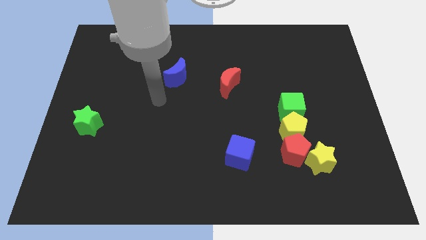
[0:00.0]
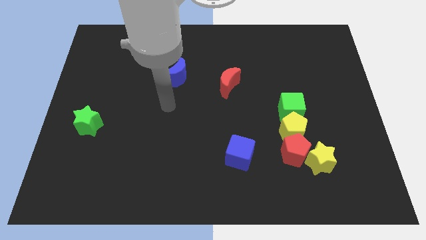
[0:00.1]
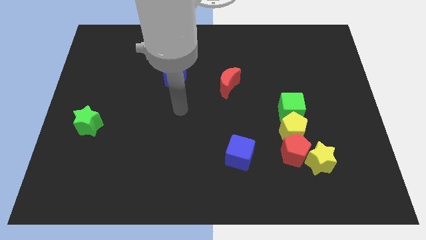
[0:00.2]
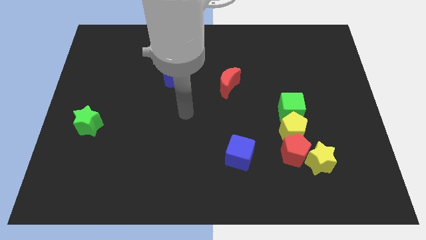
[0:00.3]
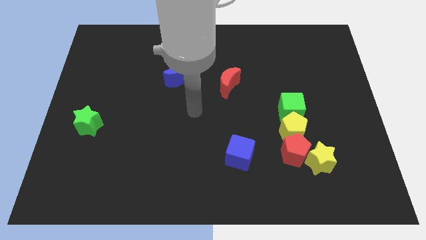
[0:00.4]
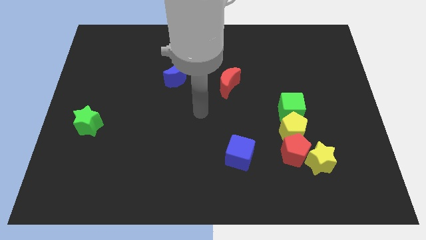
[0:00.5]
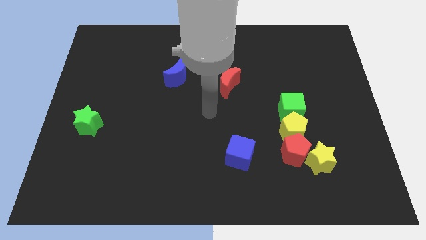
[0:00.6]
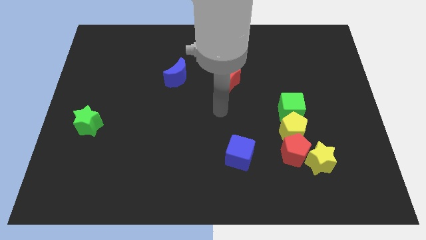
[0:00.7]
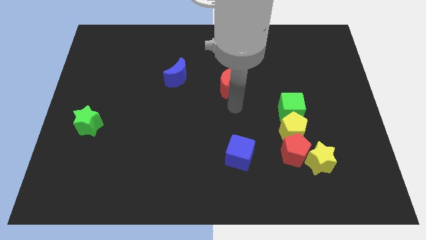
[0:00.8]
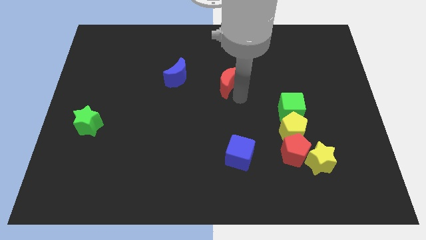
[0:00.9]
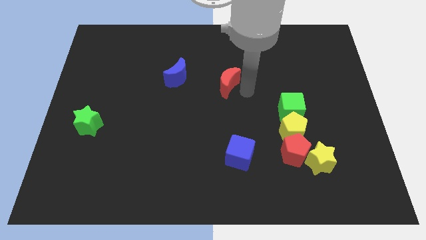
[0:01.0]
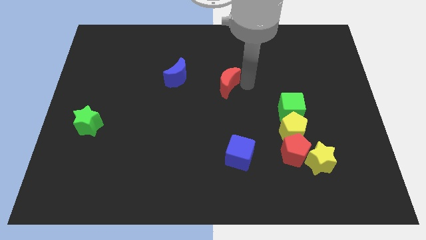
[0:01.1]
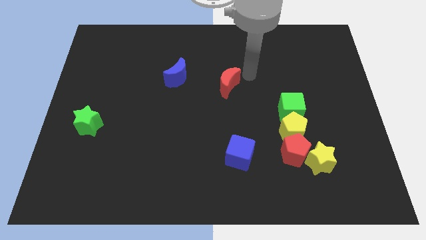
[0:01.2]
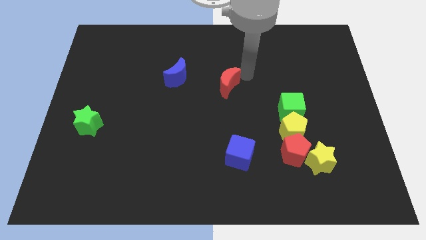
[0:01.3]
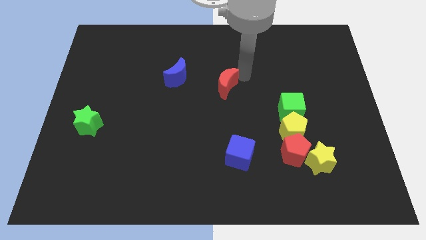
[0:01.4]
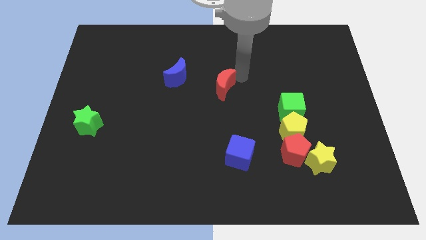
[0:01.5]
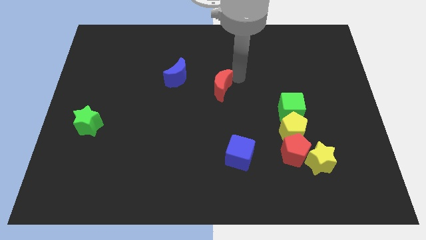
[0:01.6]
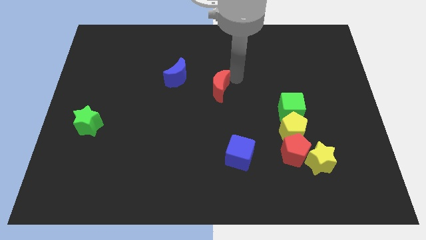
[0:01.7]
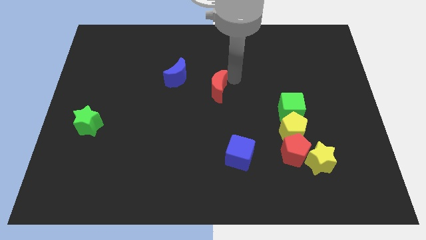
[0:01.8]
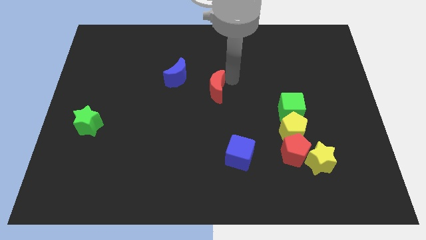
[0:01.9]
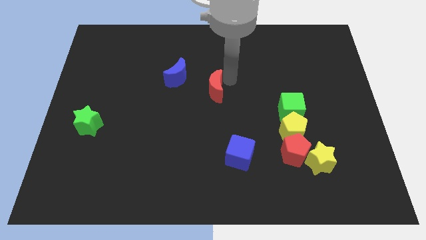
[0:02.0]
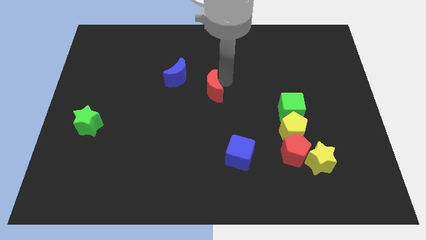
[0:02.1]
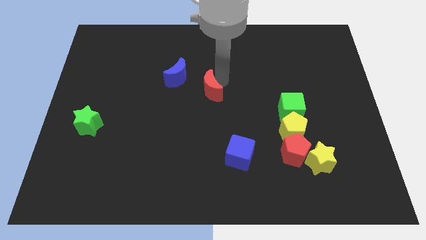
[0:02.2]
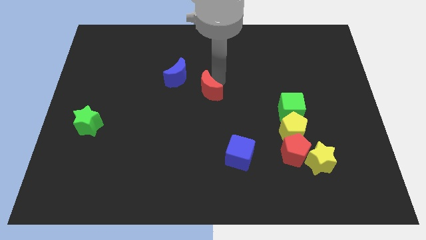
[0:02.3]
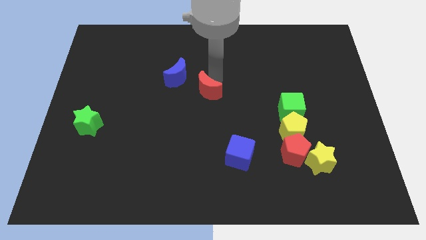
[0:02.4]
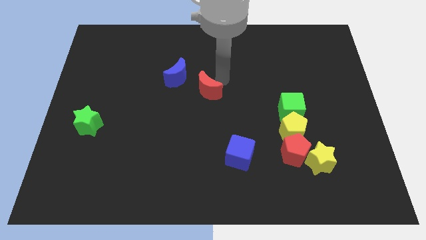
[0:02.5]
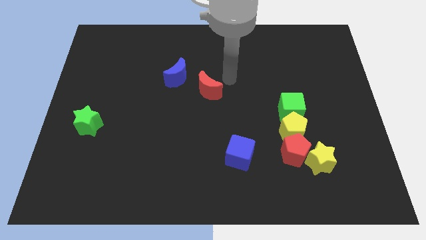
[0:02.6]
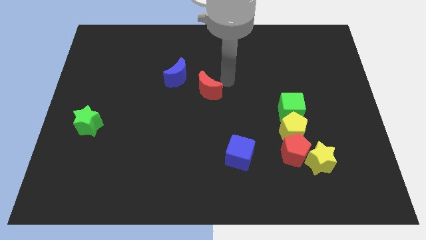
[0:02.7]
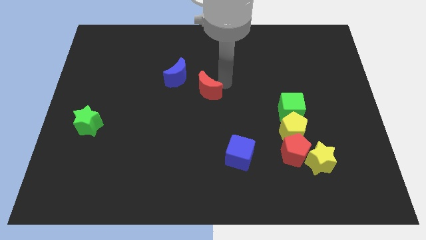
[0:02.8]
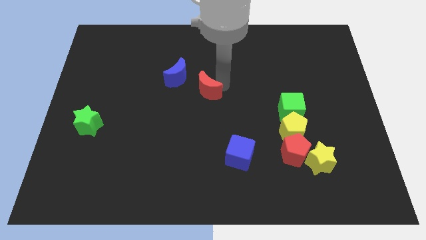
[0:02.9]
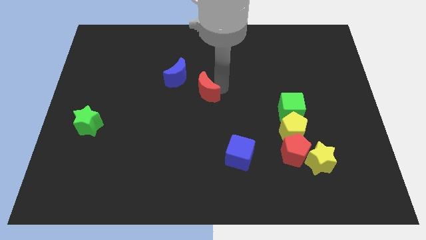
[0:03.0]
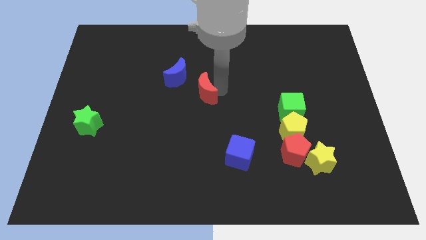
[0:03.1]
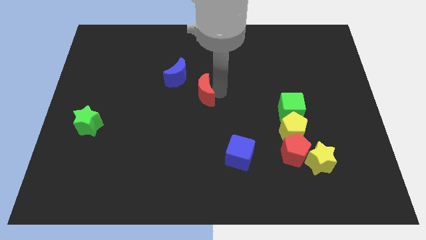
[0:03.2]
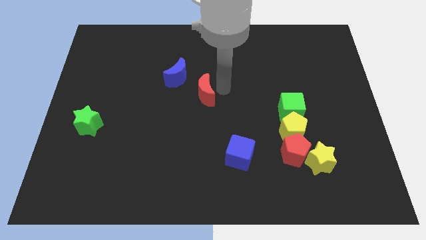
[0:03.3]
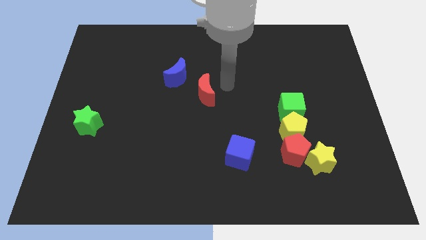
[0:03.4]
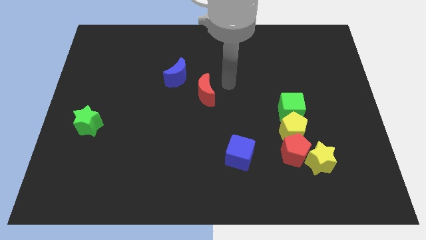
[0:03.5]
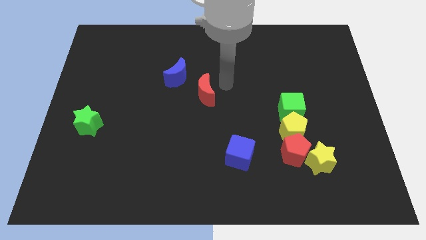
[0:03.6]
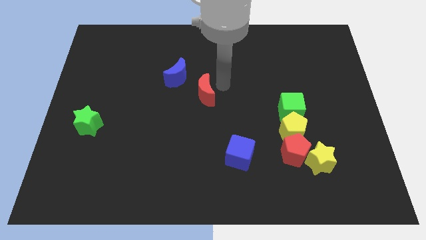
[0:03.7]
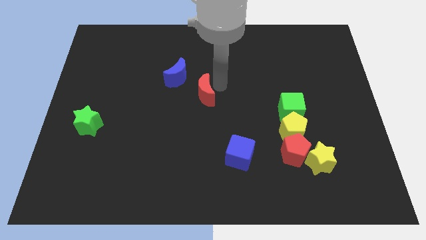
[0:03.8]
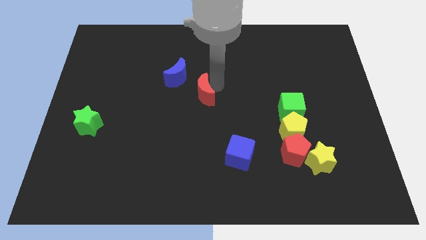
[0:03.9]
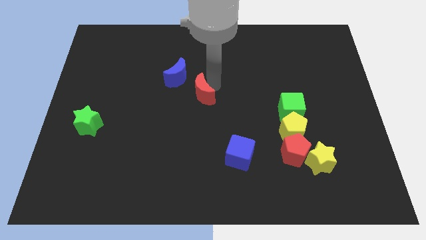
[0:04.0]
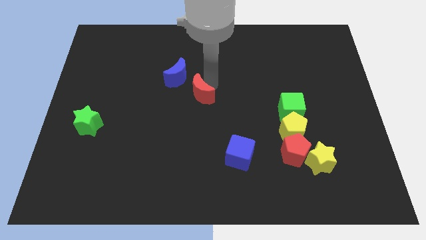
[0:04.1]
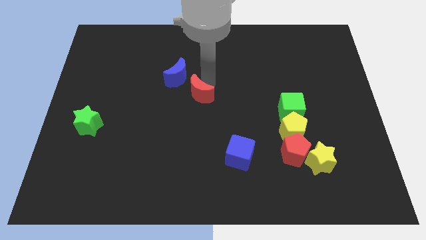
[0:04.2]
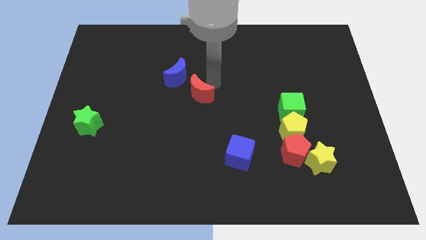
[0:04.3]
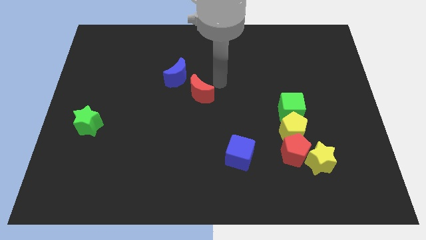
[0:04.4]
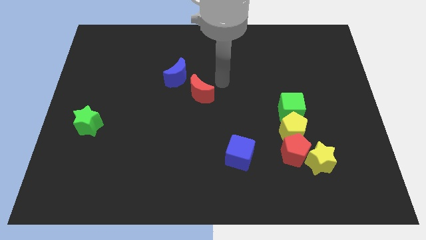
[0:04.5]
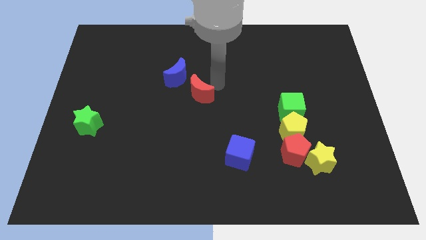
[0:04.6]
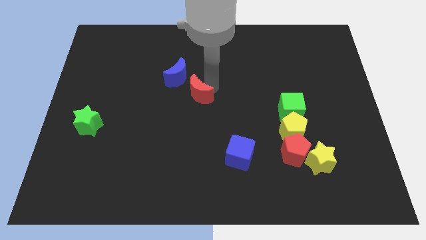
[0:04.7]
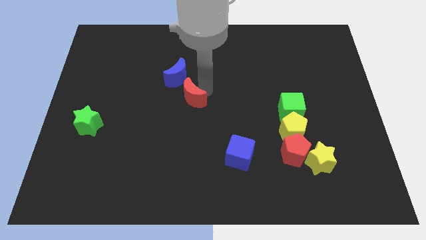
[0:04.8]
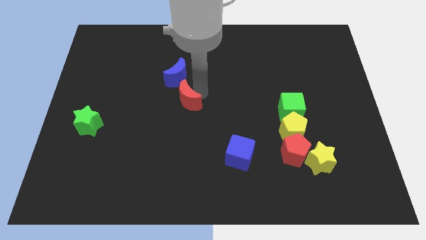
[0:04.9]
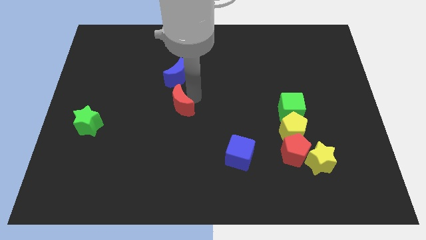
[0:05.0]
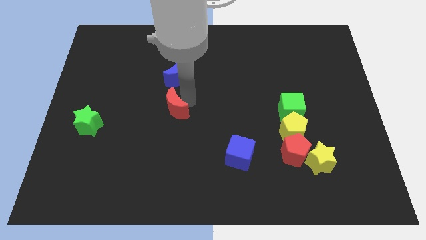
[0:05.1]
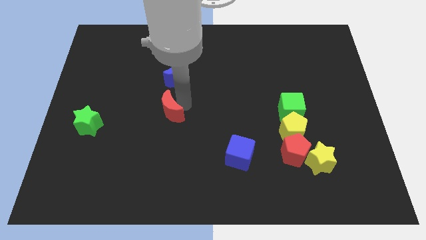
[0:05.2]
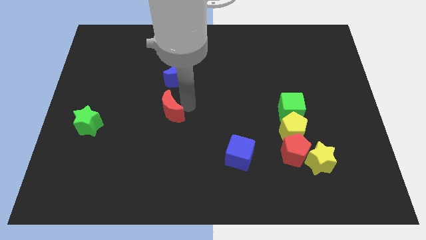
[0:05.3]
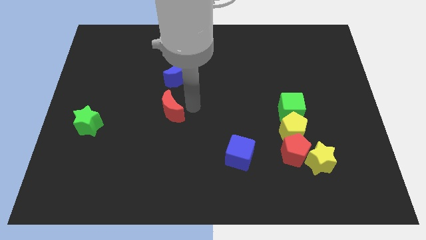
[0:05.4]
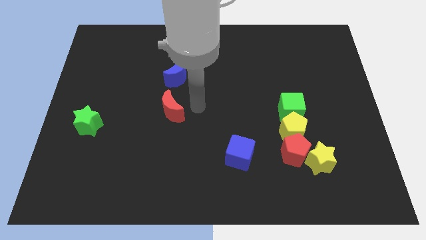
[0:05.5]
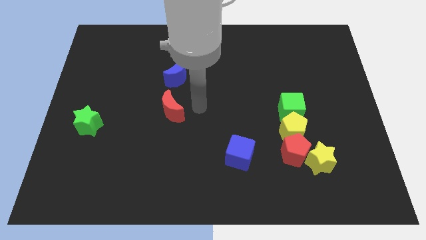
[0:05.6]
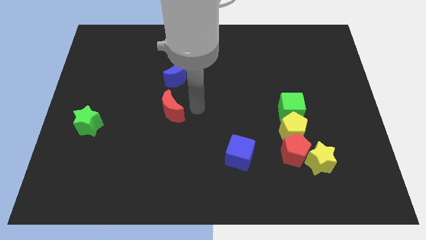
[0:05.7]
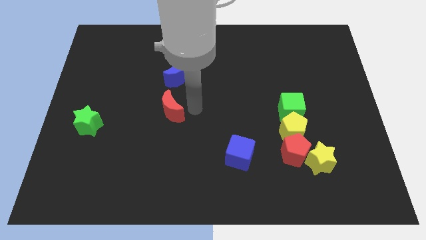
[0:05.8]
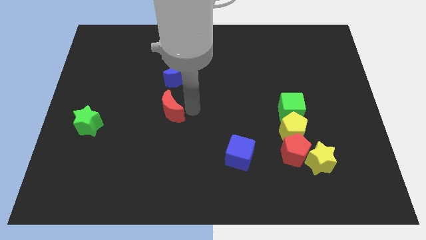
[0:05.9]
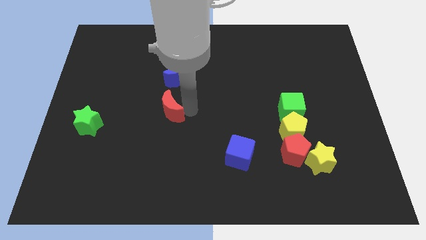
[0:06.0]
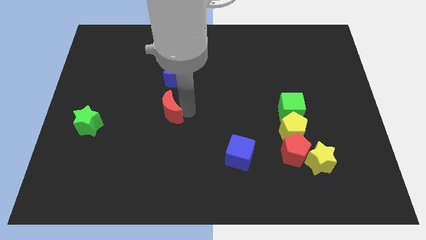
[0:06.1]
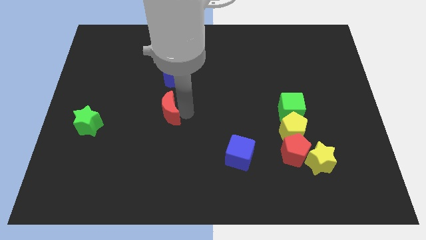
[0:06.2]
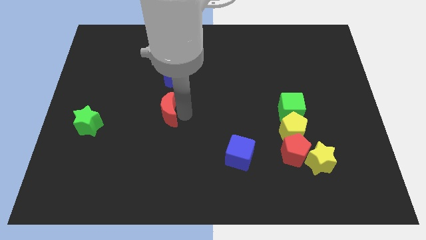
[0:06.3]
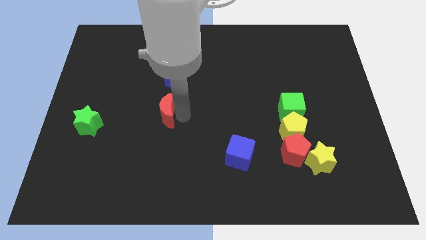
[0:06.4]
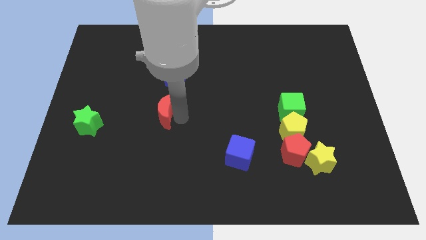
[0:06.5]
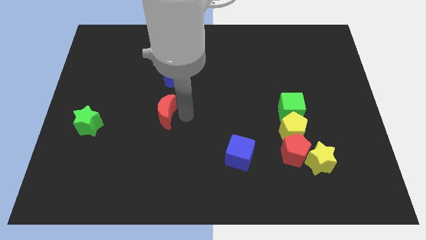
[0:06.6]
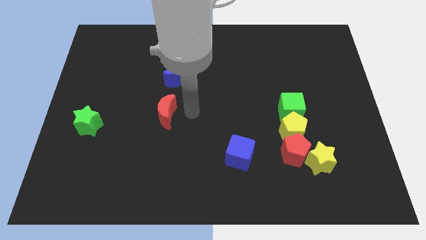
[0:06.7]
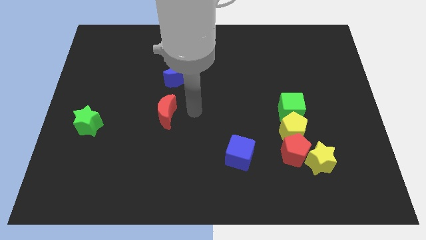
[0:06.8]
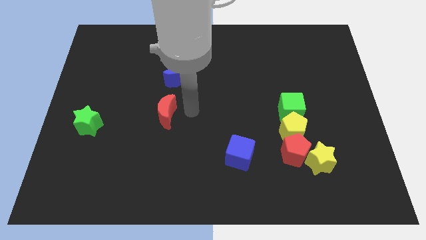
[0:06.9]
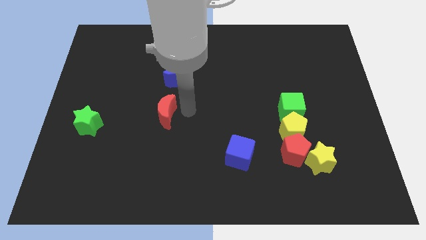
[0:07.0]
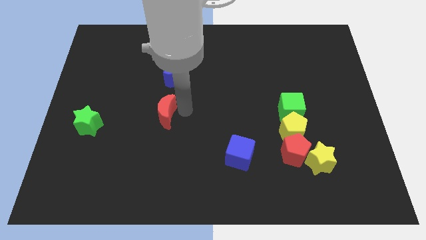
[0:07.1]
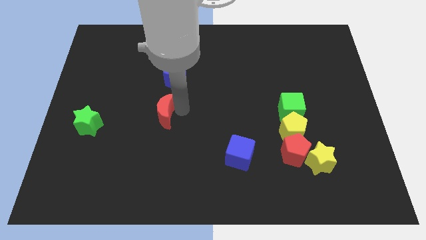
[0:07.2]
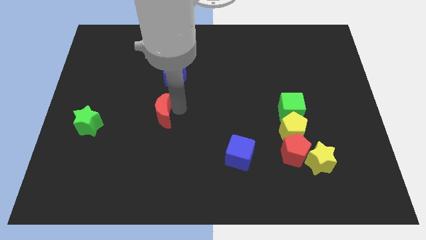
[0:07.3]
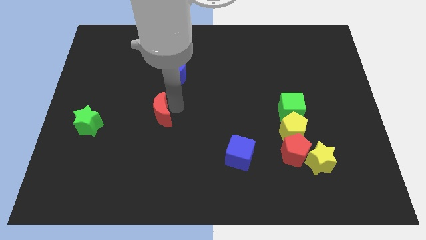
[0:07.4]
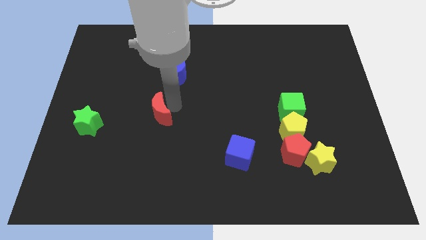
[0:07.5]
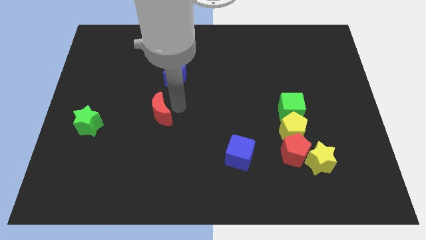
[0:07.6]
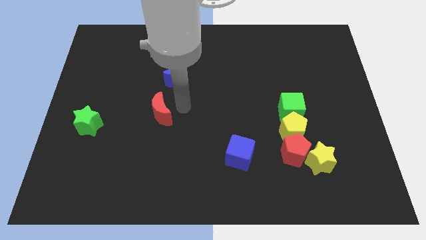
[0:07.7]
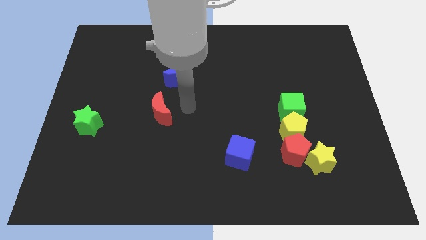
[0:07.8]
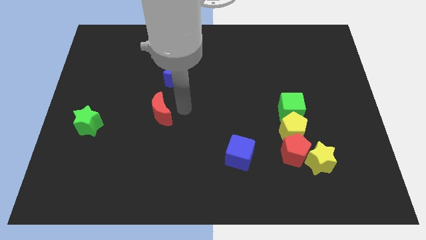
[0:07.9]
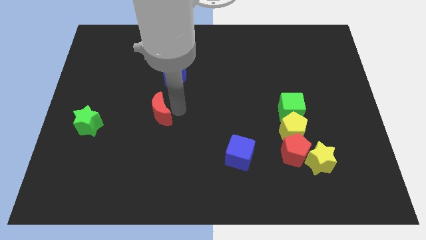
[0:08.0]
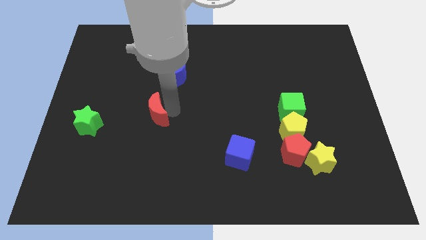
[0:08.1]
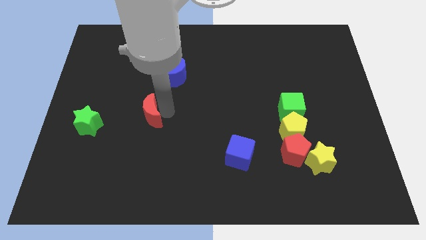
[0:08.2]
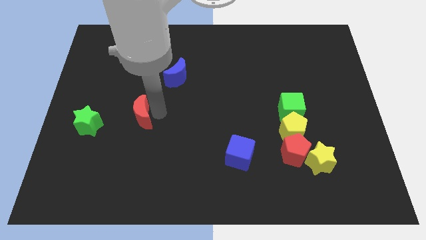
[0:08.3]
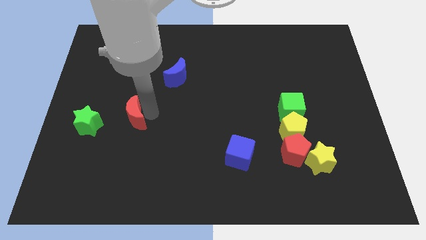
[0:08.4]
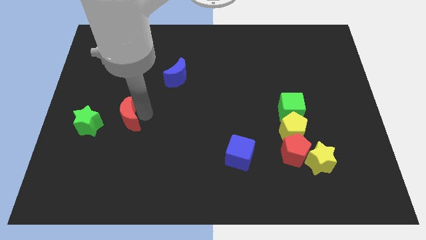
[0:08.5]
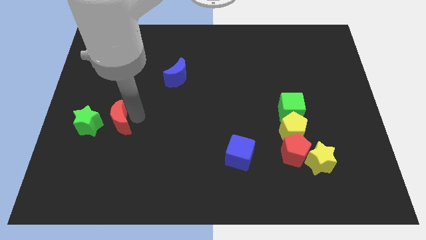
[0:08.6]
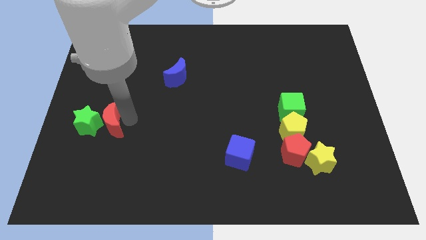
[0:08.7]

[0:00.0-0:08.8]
move the red moon next to the green star
